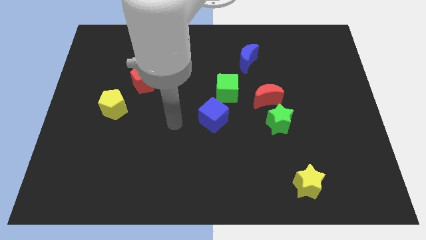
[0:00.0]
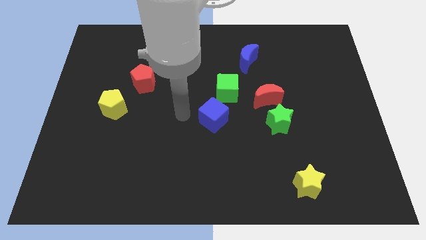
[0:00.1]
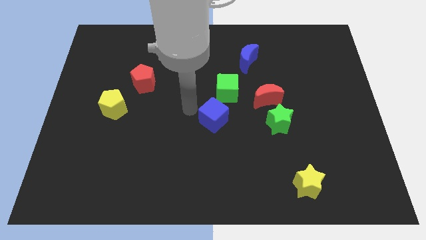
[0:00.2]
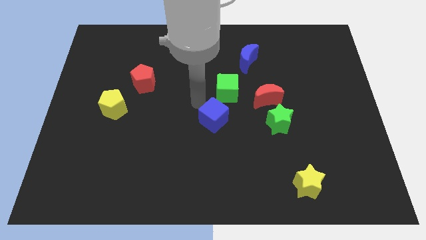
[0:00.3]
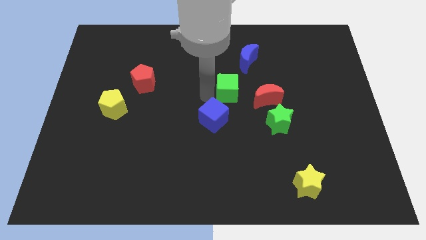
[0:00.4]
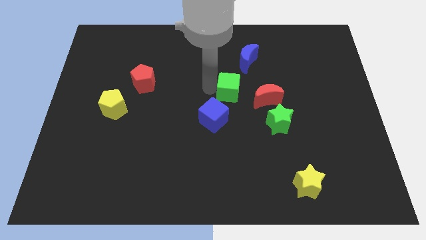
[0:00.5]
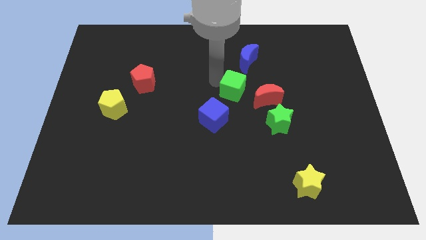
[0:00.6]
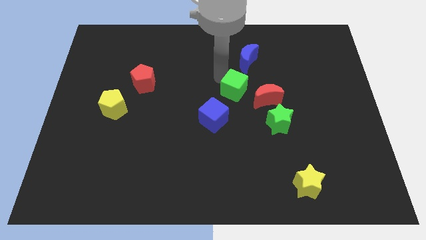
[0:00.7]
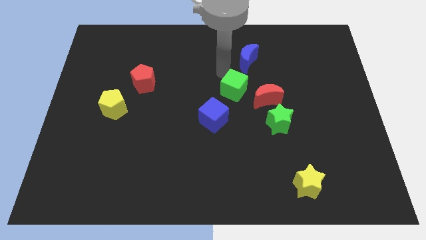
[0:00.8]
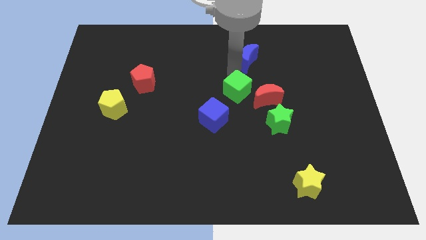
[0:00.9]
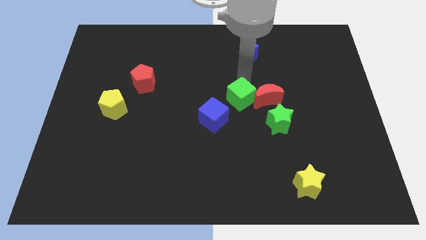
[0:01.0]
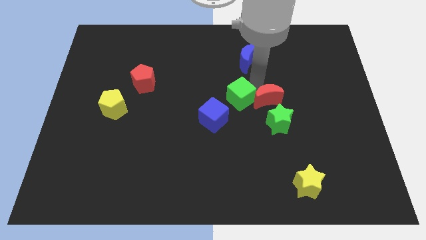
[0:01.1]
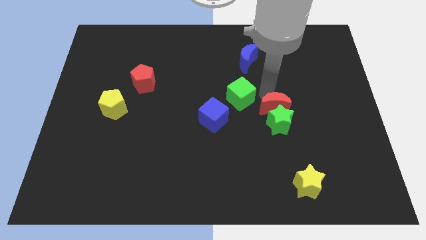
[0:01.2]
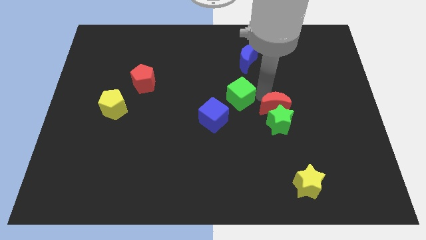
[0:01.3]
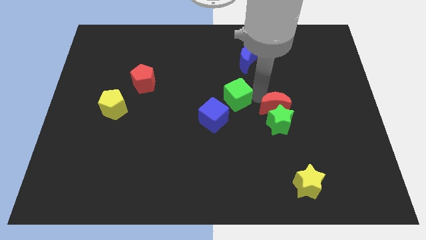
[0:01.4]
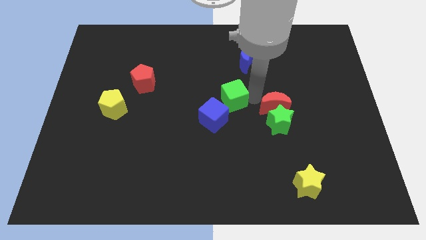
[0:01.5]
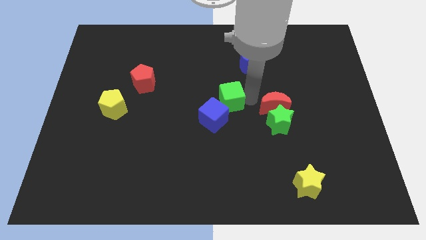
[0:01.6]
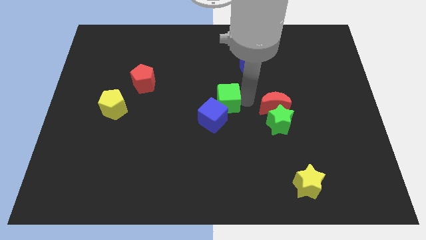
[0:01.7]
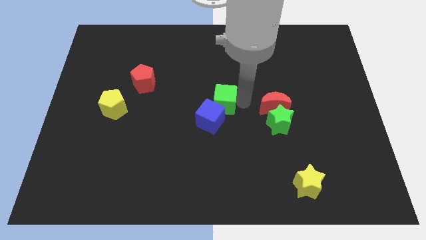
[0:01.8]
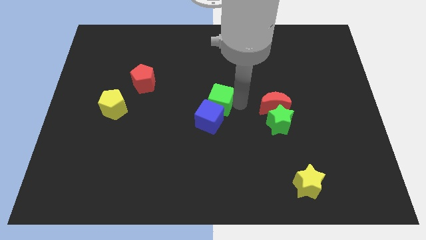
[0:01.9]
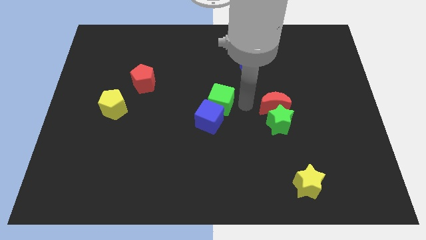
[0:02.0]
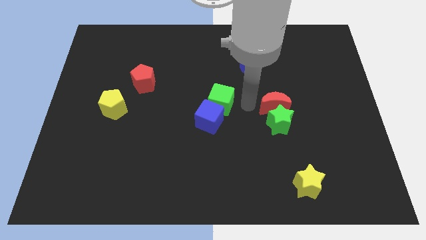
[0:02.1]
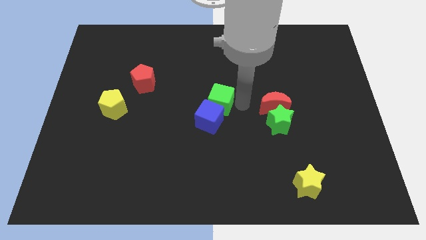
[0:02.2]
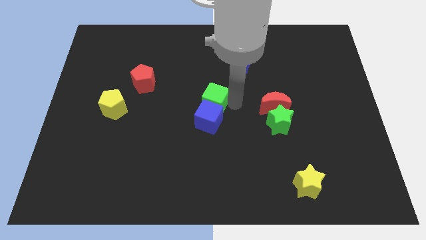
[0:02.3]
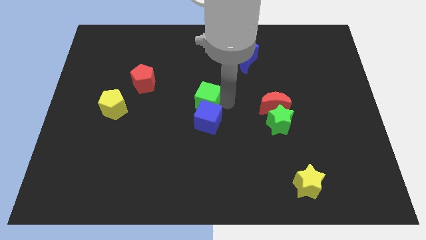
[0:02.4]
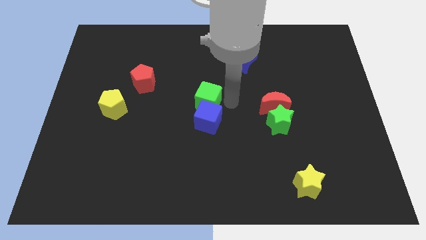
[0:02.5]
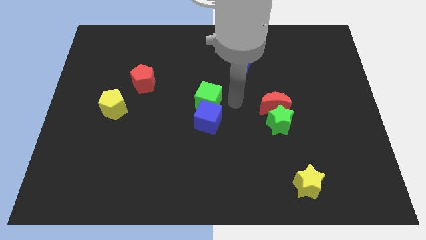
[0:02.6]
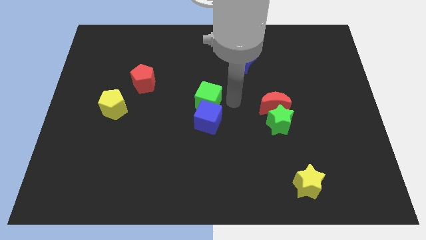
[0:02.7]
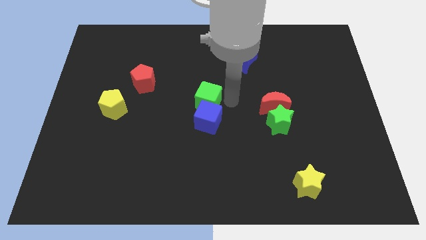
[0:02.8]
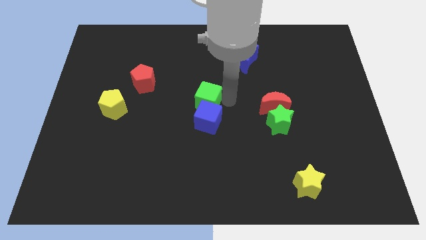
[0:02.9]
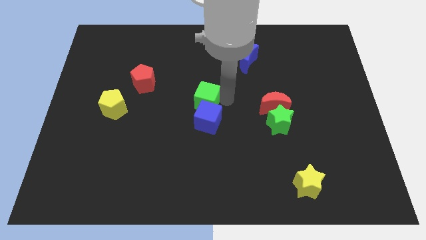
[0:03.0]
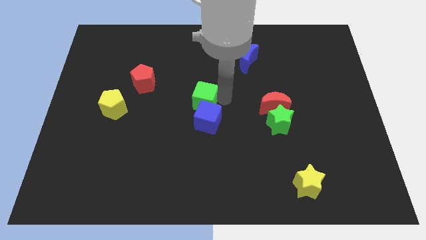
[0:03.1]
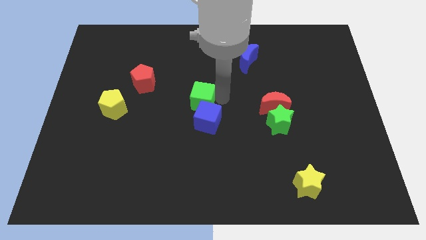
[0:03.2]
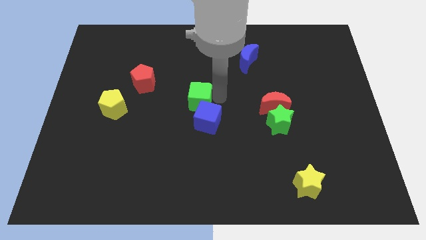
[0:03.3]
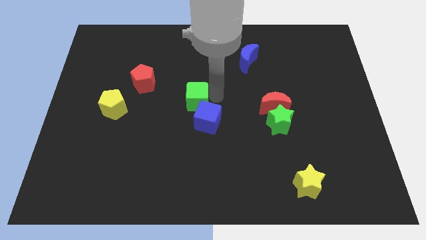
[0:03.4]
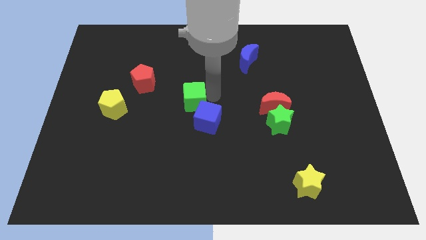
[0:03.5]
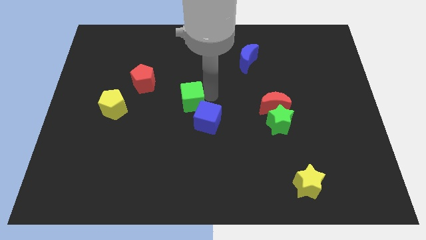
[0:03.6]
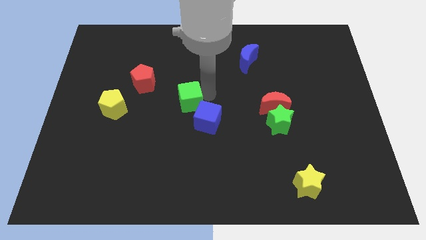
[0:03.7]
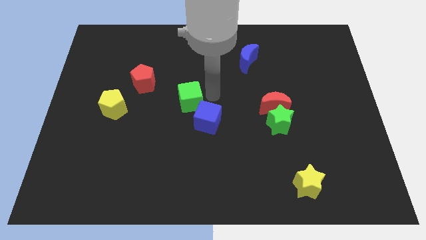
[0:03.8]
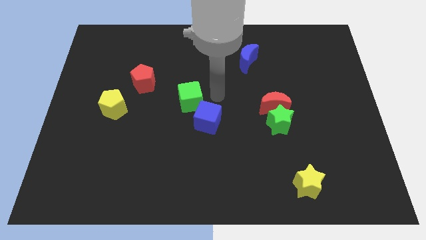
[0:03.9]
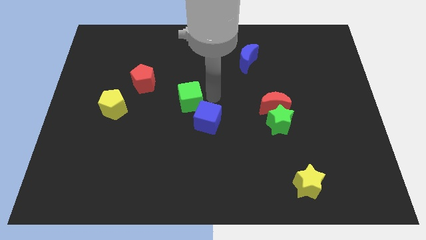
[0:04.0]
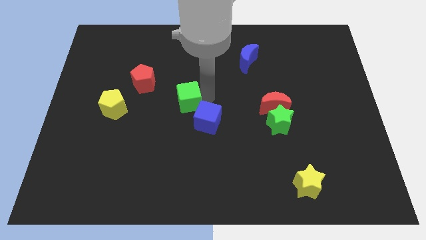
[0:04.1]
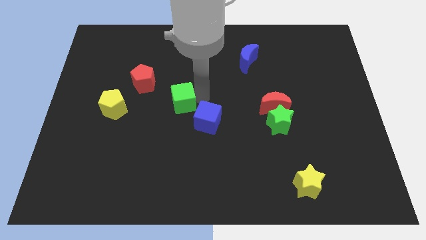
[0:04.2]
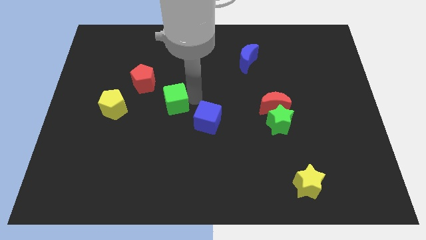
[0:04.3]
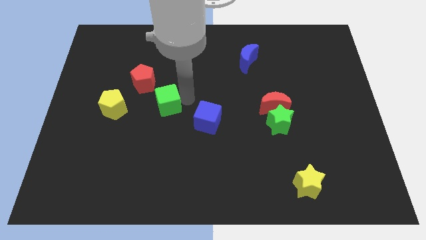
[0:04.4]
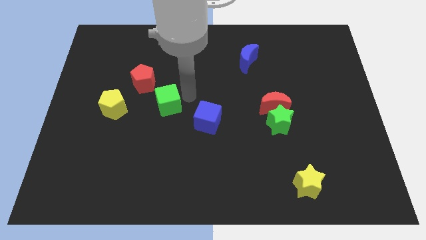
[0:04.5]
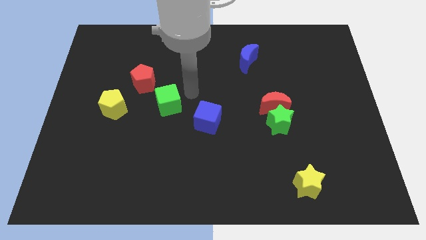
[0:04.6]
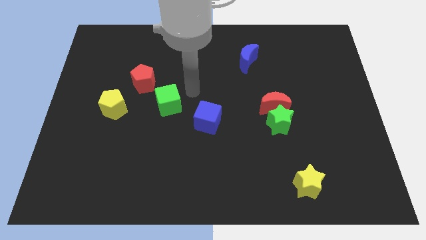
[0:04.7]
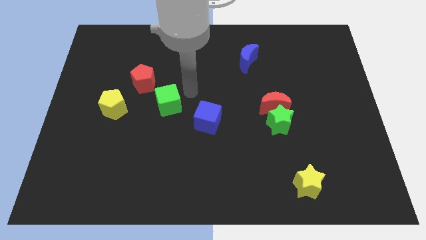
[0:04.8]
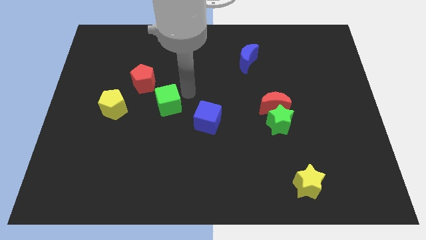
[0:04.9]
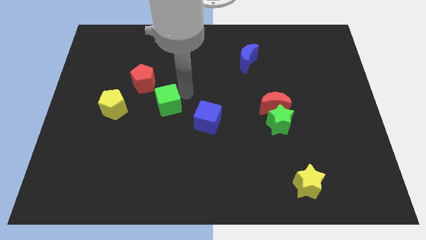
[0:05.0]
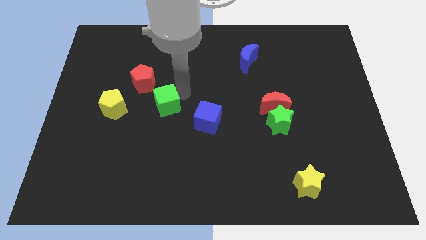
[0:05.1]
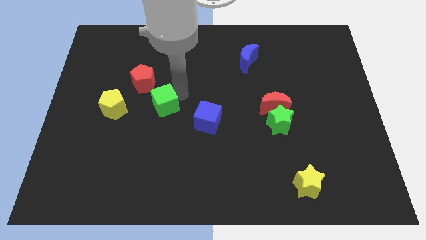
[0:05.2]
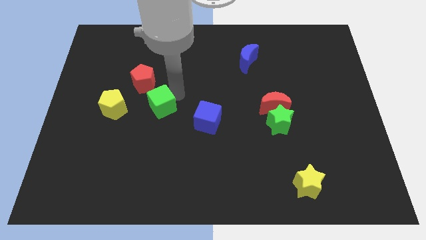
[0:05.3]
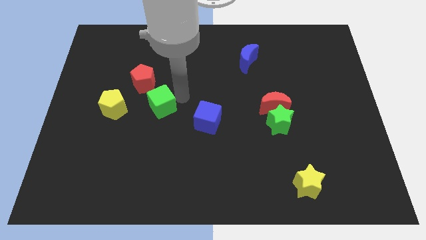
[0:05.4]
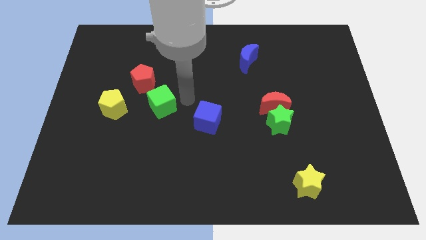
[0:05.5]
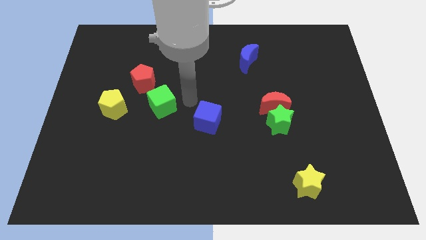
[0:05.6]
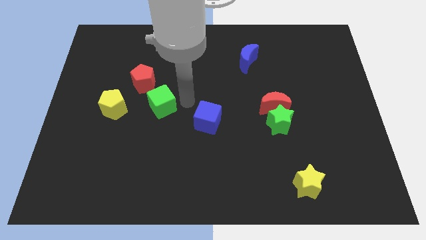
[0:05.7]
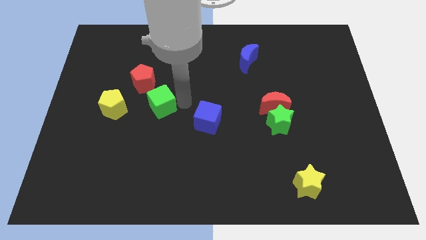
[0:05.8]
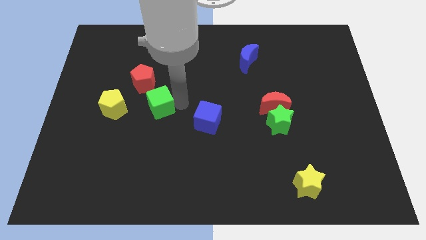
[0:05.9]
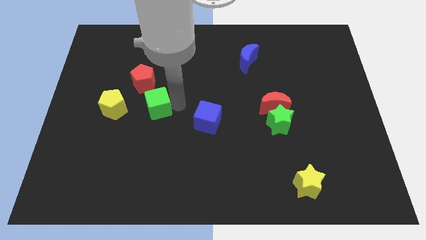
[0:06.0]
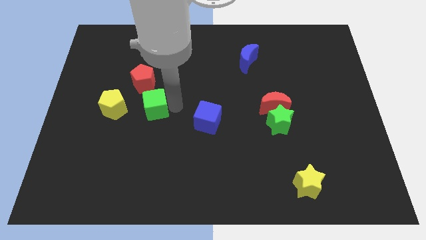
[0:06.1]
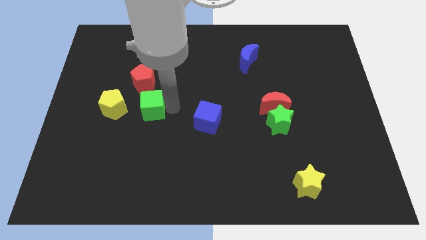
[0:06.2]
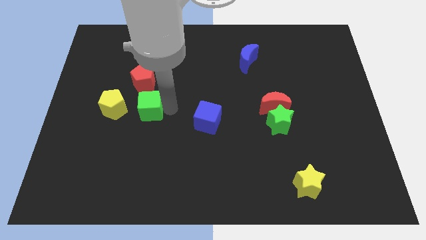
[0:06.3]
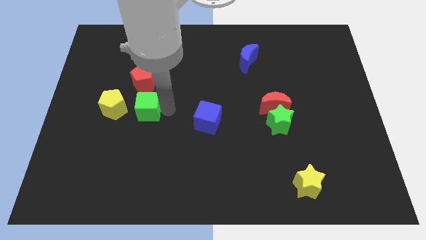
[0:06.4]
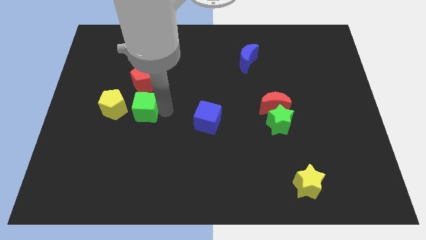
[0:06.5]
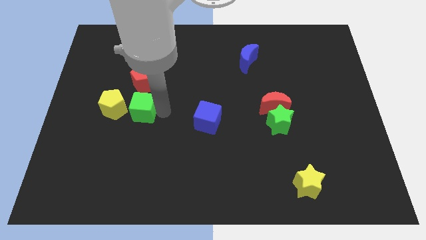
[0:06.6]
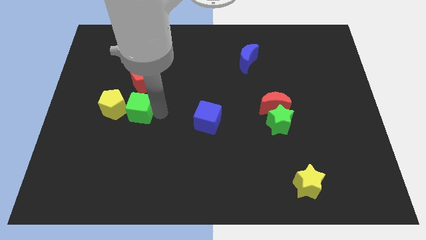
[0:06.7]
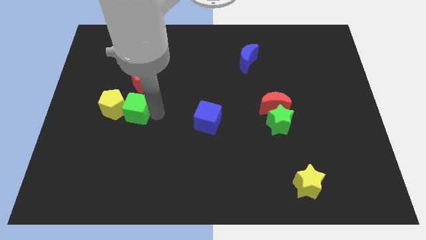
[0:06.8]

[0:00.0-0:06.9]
push the green cube to the yellow pentagon
